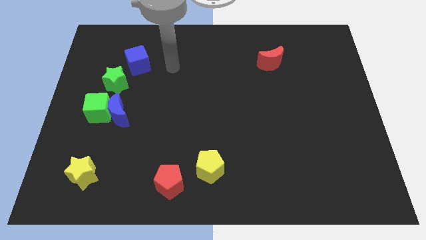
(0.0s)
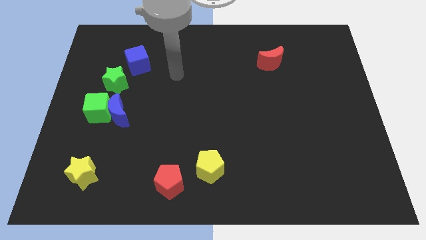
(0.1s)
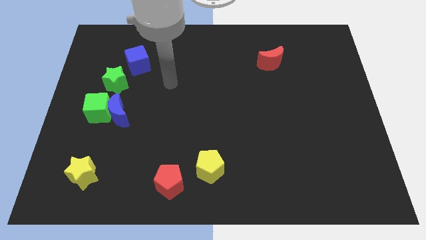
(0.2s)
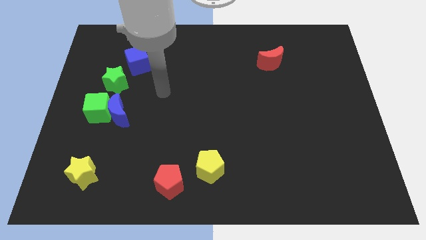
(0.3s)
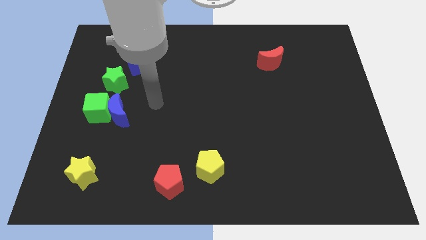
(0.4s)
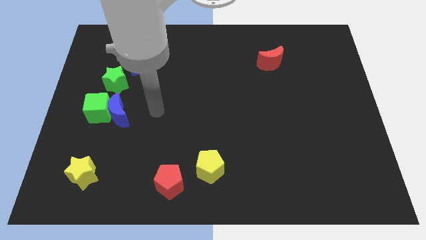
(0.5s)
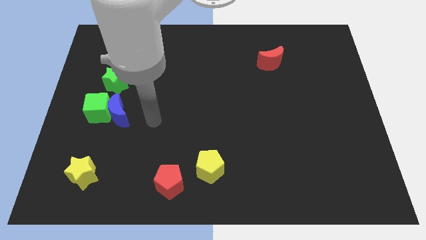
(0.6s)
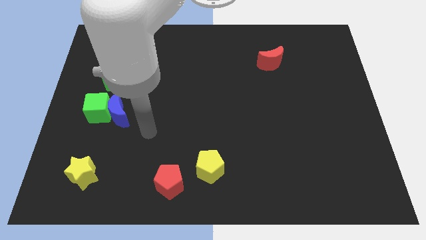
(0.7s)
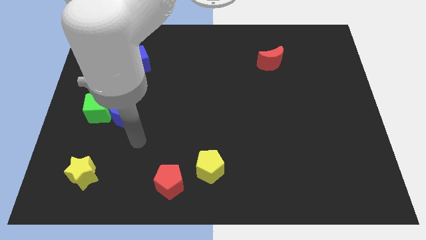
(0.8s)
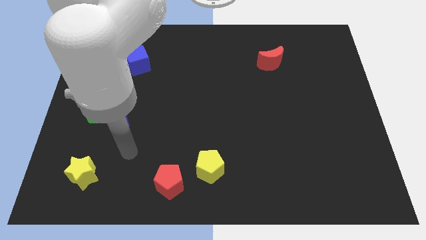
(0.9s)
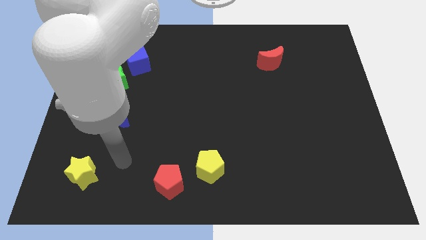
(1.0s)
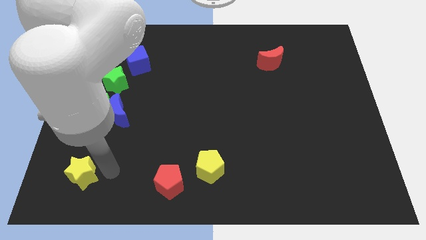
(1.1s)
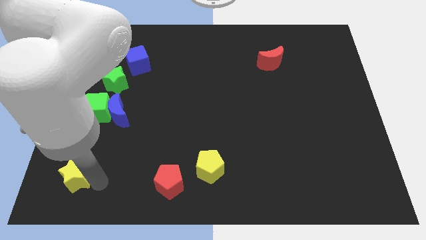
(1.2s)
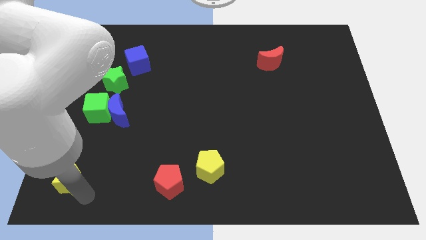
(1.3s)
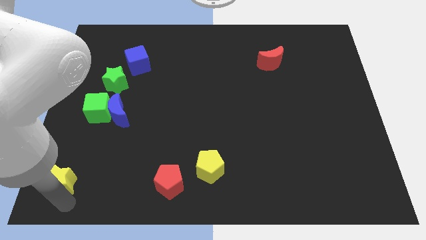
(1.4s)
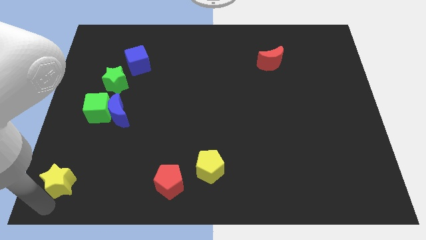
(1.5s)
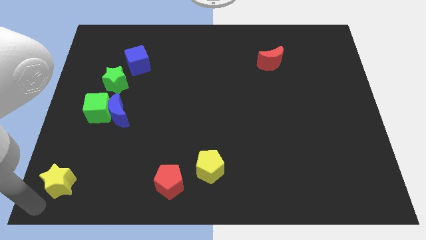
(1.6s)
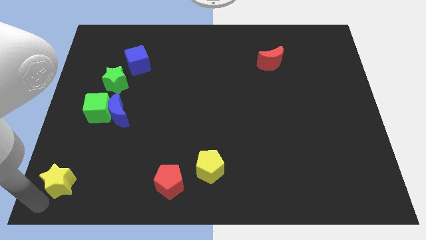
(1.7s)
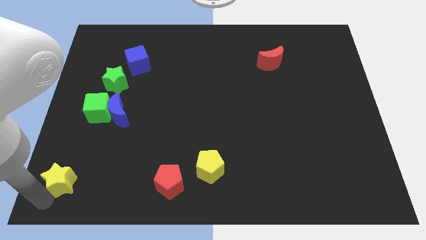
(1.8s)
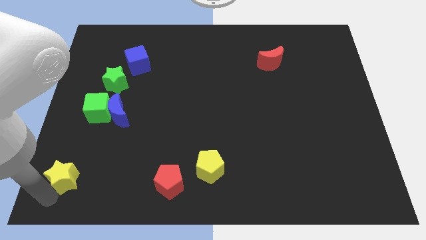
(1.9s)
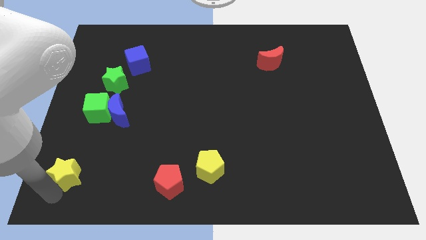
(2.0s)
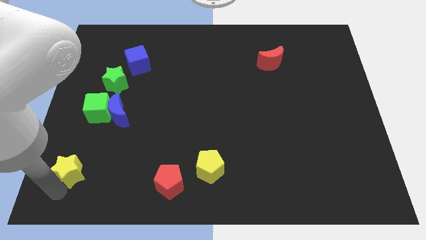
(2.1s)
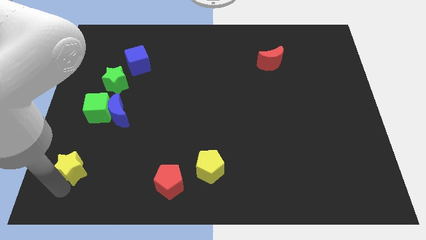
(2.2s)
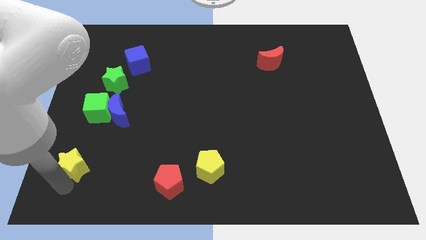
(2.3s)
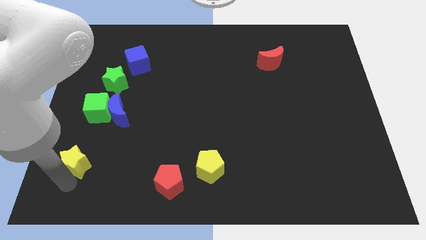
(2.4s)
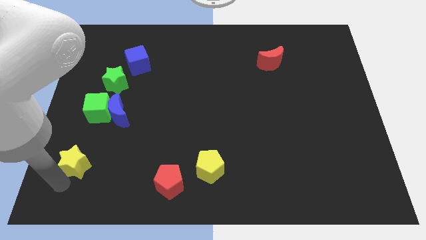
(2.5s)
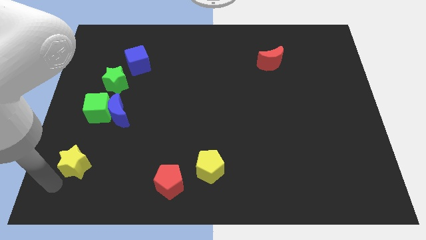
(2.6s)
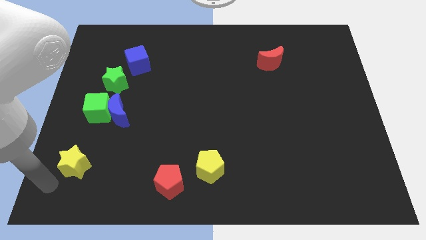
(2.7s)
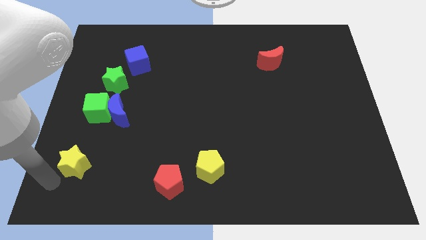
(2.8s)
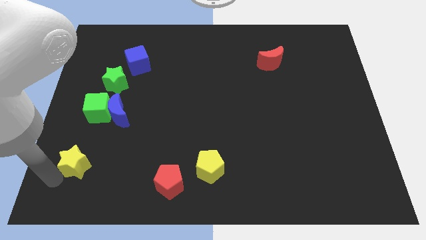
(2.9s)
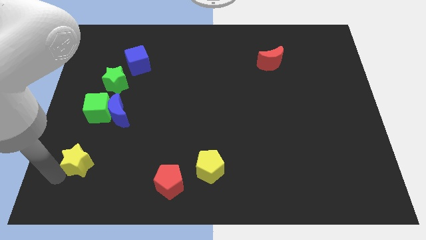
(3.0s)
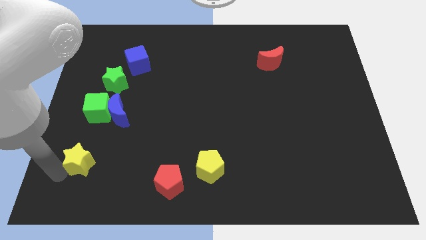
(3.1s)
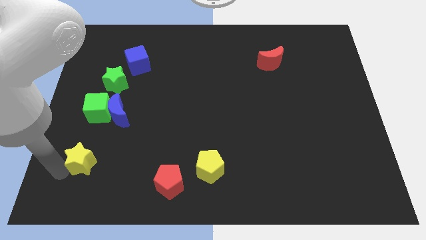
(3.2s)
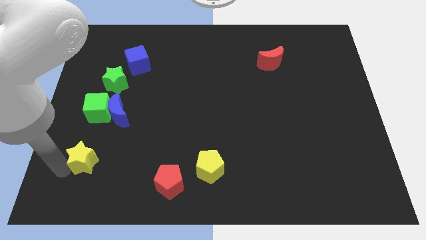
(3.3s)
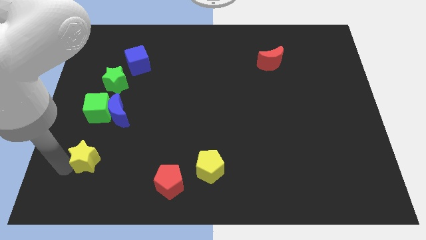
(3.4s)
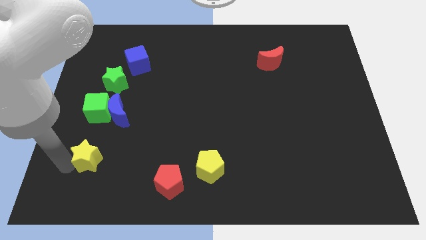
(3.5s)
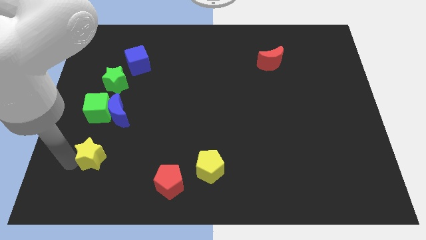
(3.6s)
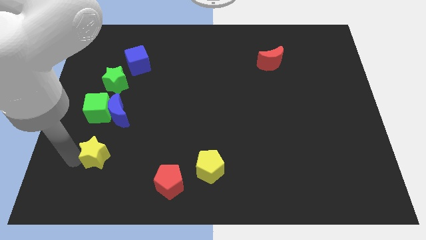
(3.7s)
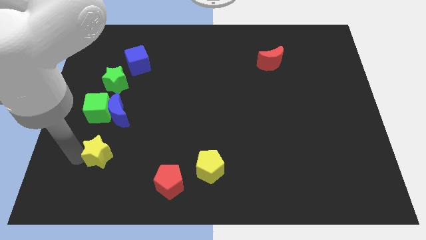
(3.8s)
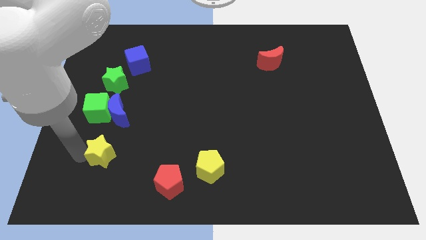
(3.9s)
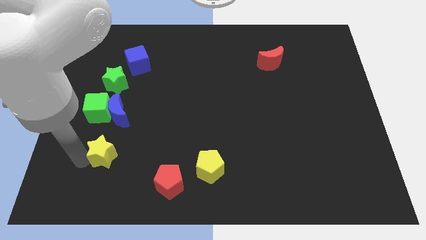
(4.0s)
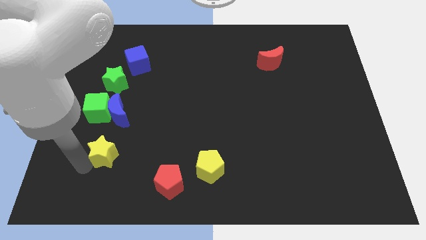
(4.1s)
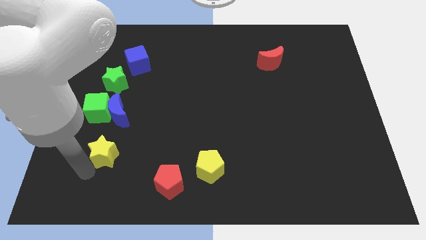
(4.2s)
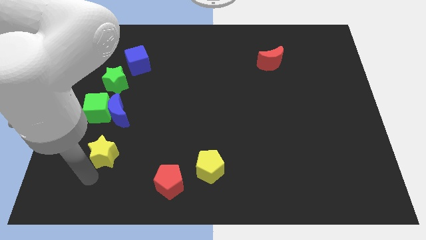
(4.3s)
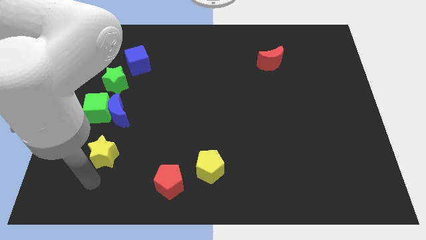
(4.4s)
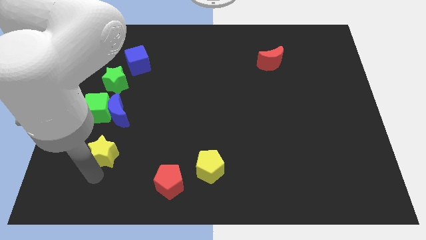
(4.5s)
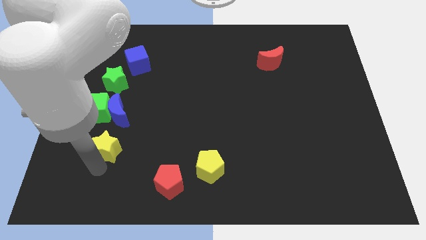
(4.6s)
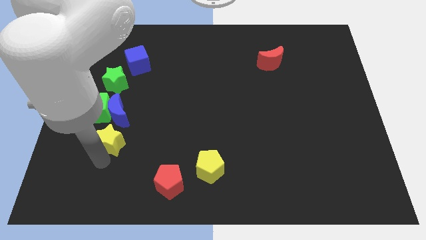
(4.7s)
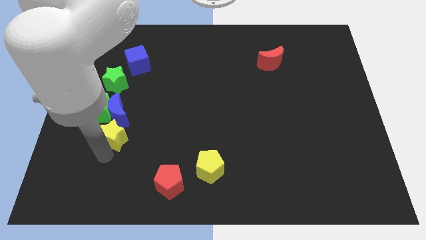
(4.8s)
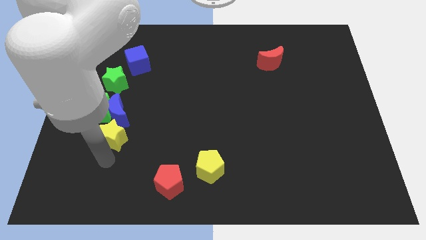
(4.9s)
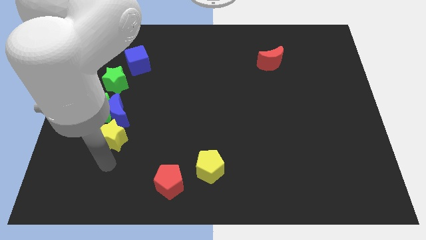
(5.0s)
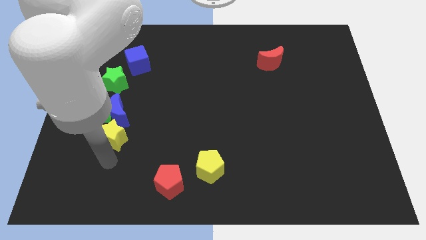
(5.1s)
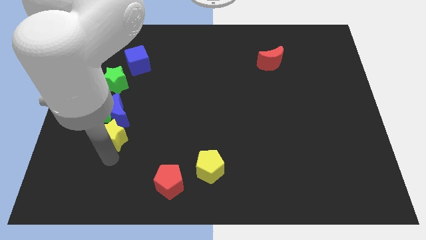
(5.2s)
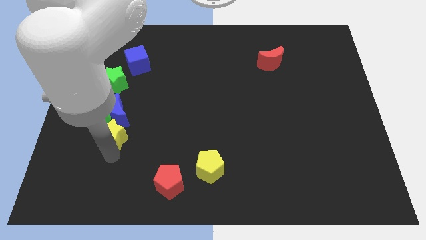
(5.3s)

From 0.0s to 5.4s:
slide the yellow star towards the blue moon

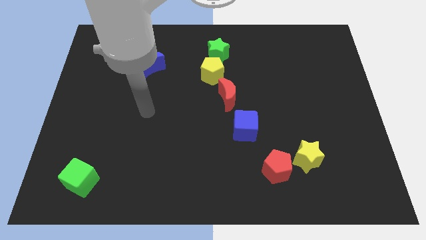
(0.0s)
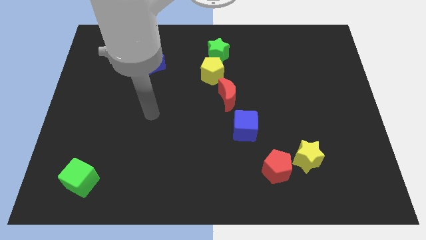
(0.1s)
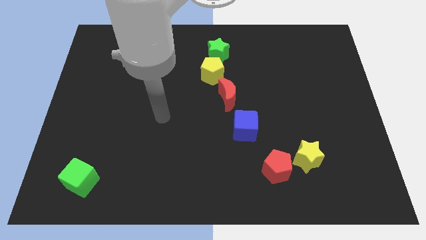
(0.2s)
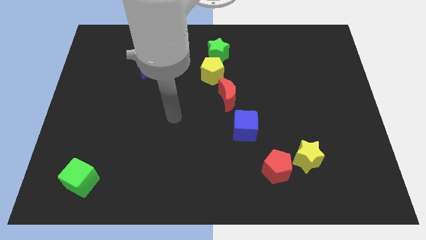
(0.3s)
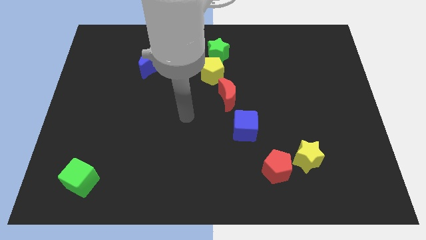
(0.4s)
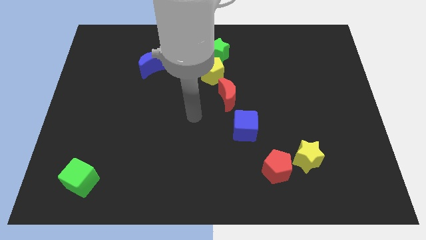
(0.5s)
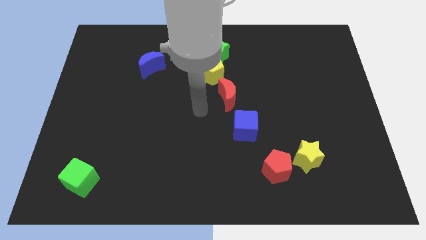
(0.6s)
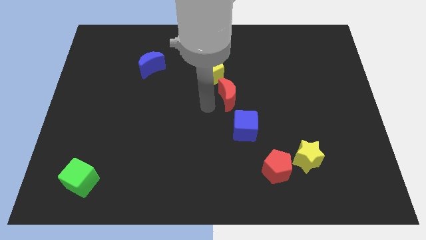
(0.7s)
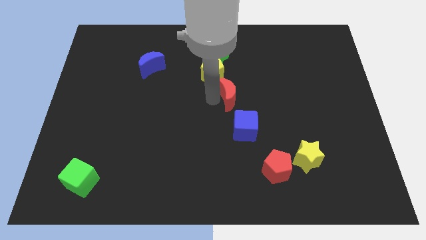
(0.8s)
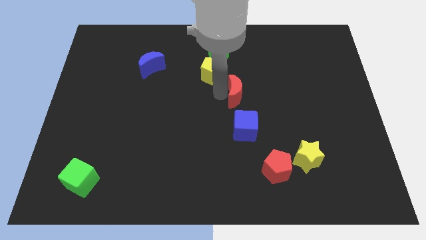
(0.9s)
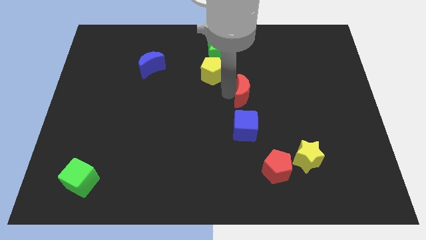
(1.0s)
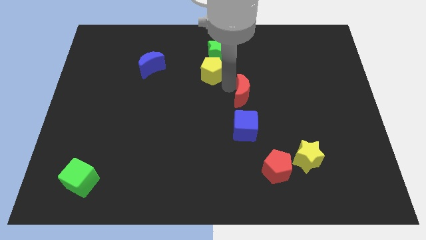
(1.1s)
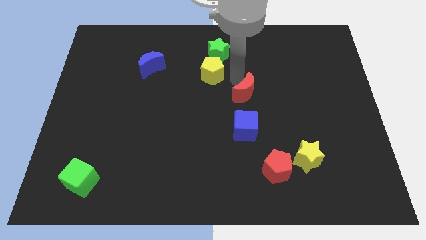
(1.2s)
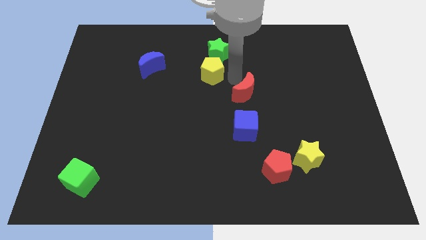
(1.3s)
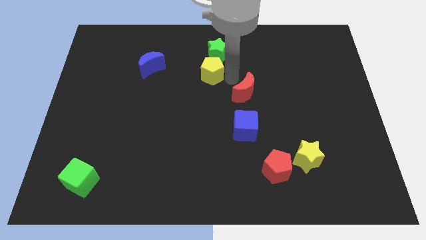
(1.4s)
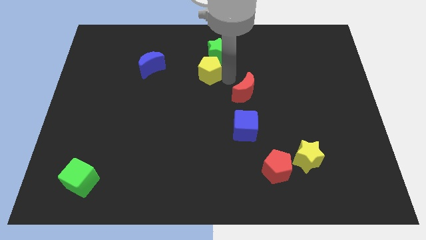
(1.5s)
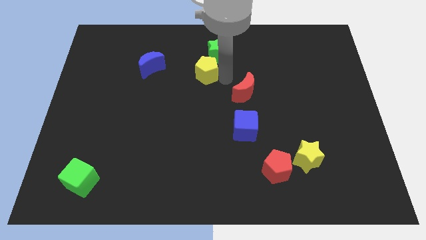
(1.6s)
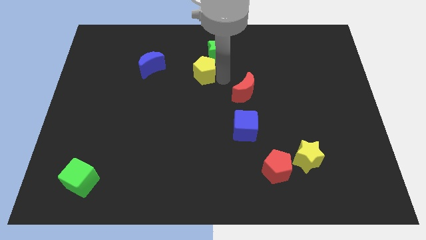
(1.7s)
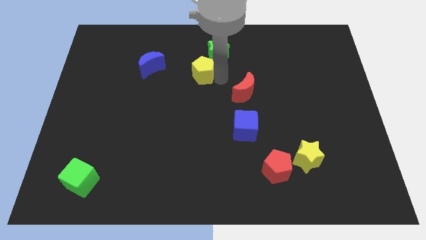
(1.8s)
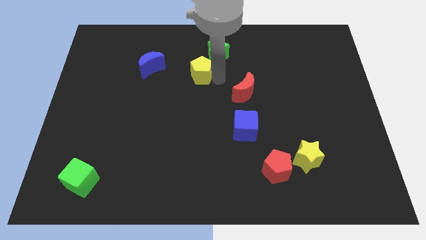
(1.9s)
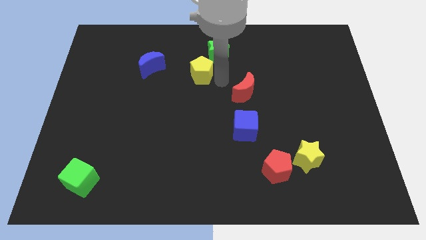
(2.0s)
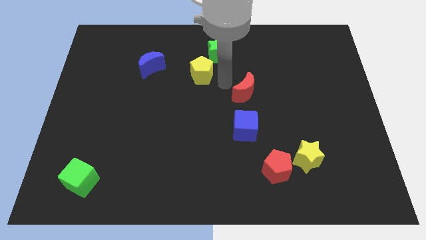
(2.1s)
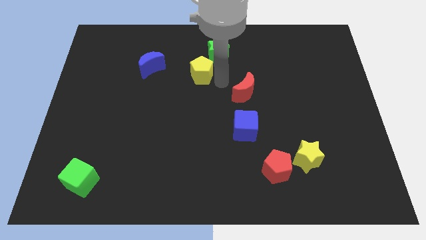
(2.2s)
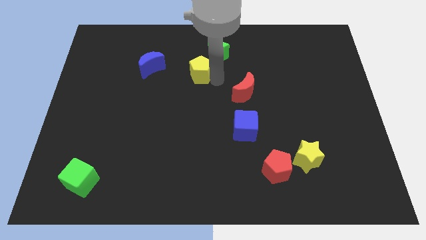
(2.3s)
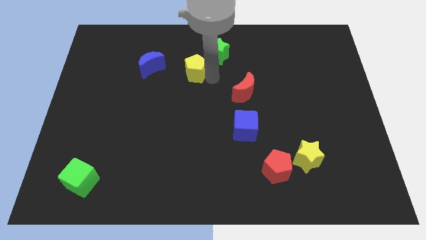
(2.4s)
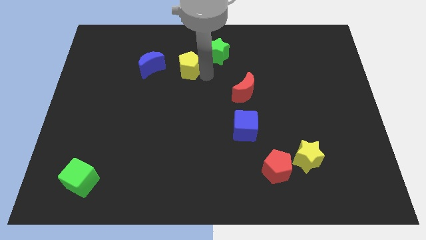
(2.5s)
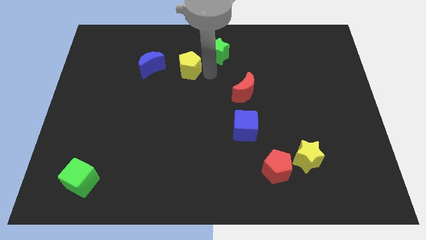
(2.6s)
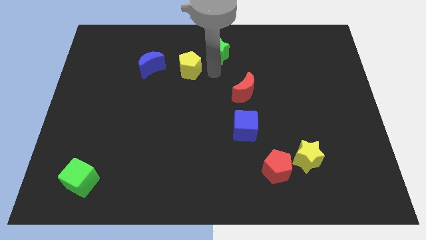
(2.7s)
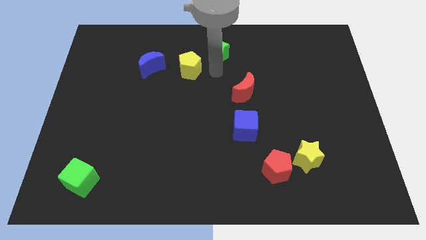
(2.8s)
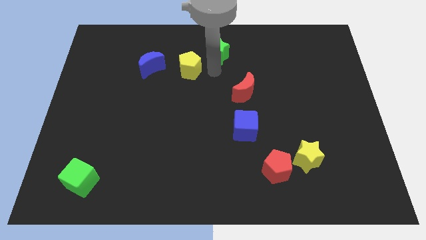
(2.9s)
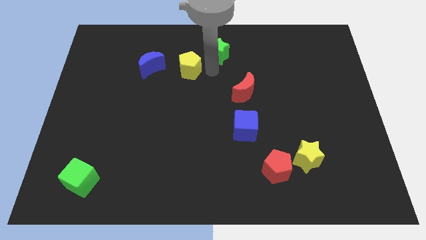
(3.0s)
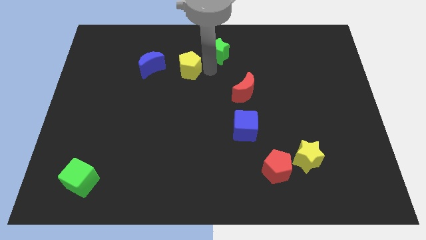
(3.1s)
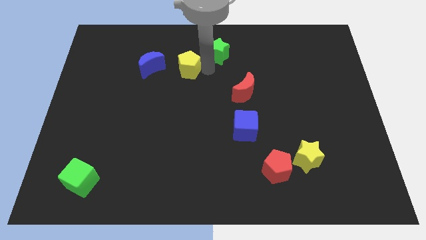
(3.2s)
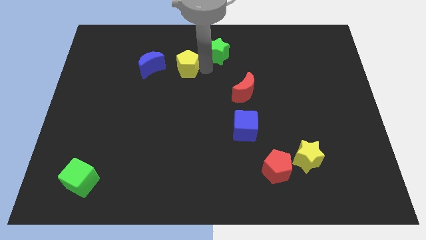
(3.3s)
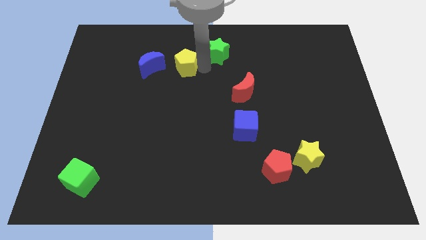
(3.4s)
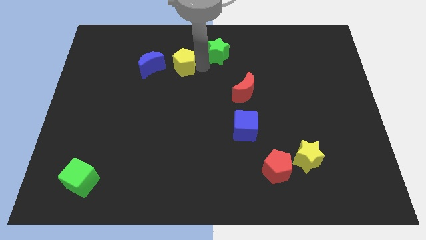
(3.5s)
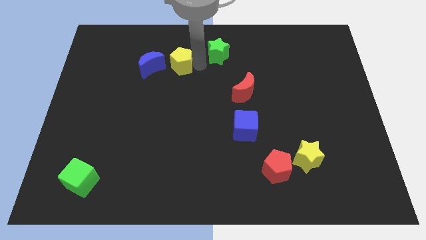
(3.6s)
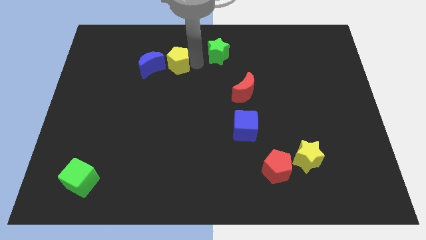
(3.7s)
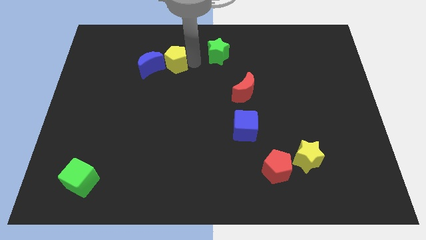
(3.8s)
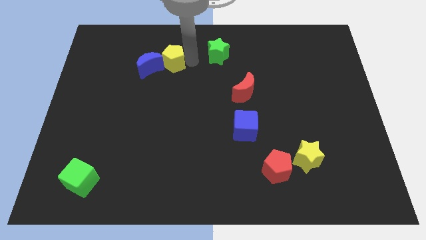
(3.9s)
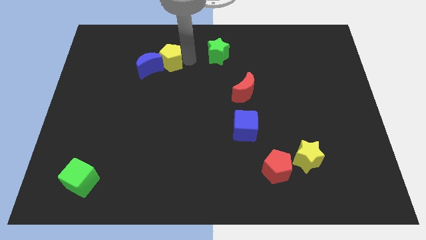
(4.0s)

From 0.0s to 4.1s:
push the yellow pentagon towards the blue moon
